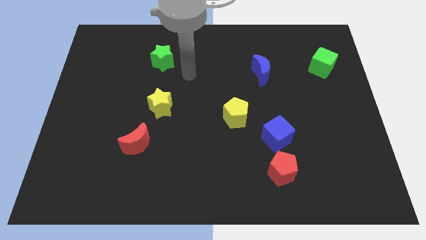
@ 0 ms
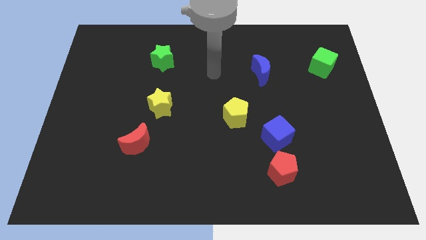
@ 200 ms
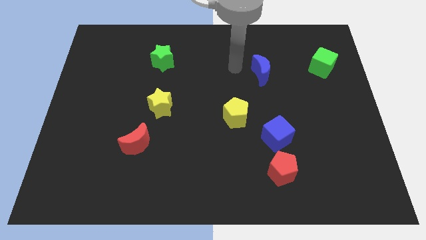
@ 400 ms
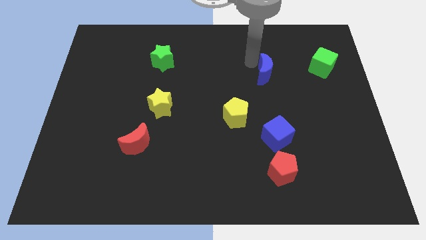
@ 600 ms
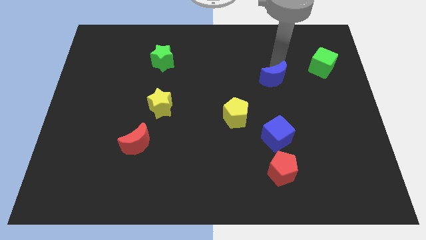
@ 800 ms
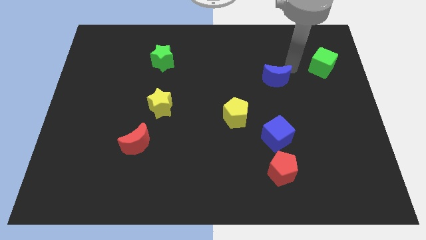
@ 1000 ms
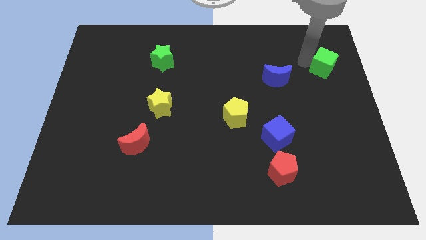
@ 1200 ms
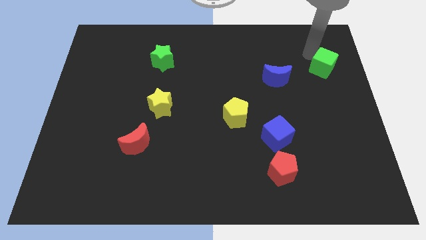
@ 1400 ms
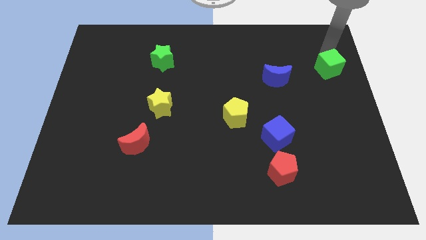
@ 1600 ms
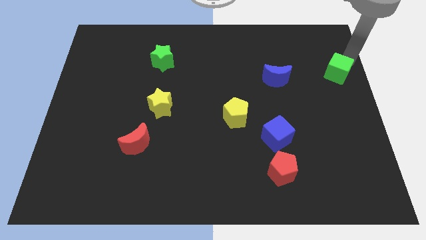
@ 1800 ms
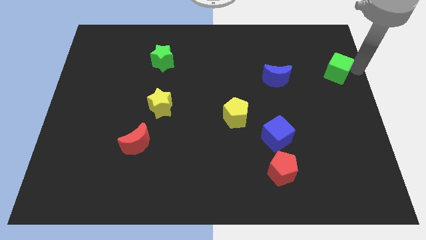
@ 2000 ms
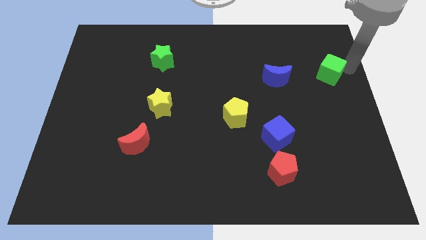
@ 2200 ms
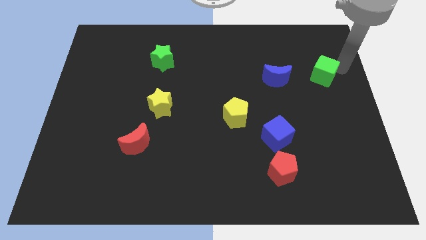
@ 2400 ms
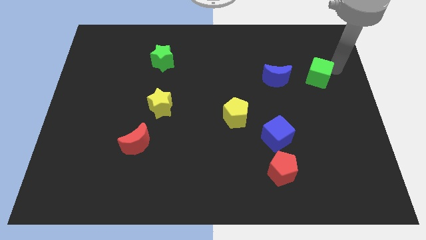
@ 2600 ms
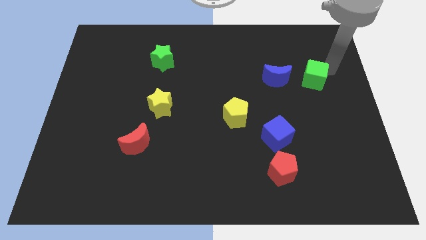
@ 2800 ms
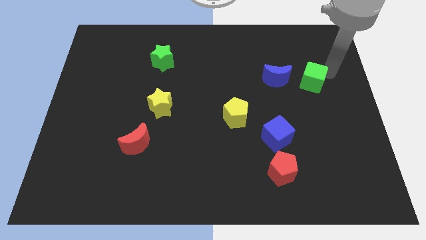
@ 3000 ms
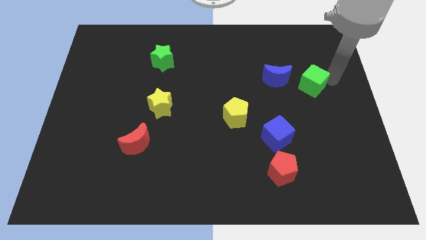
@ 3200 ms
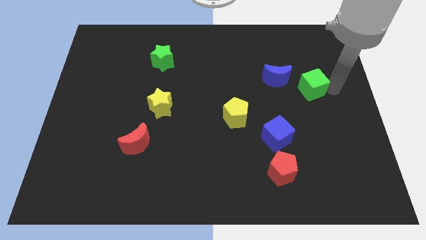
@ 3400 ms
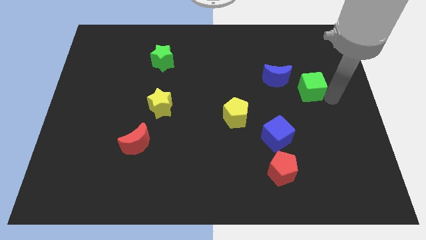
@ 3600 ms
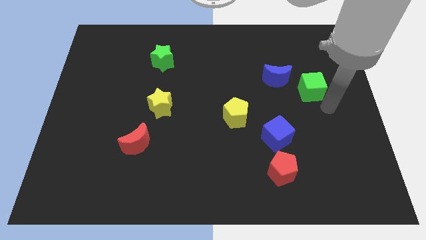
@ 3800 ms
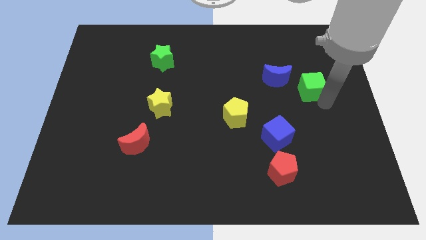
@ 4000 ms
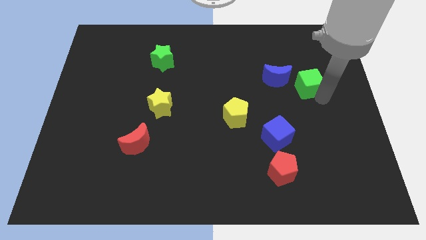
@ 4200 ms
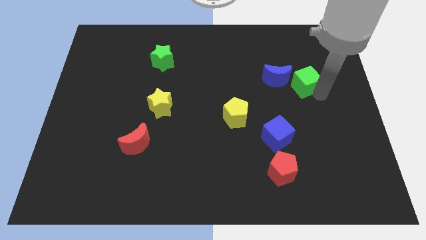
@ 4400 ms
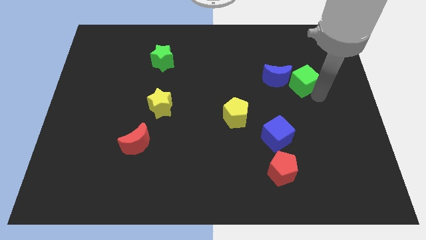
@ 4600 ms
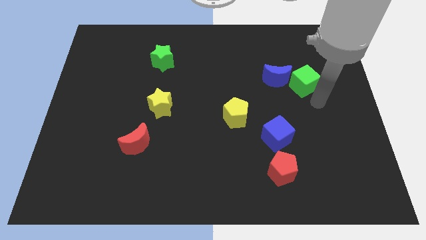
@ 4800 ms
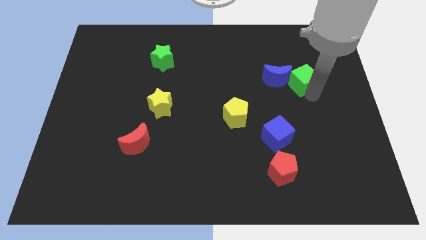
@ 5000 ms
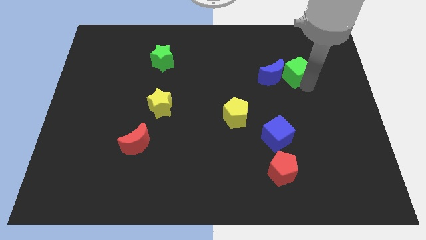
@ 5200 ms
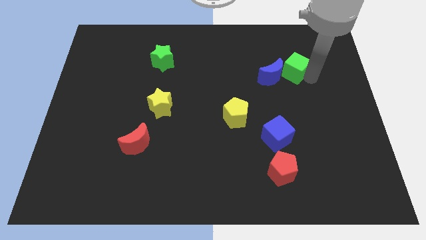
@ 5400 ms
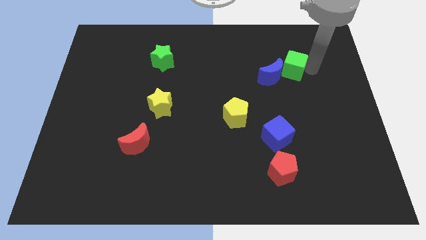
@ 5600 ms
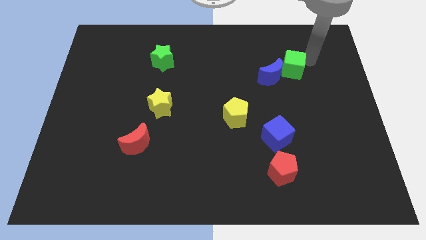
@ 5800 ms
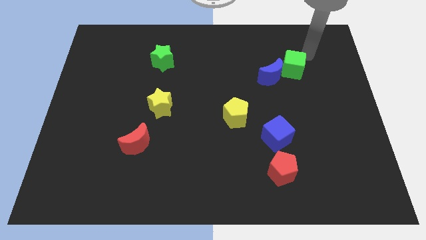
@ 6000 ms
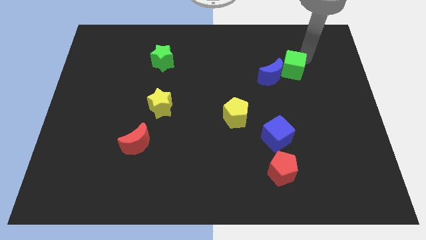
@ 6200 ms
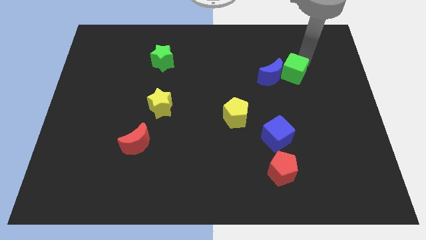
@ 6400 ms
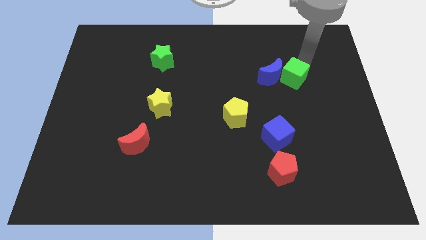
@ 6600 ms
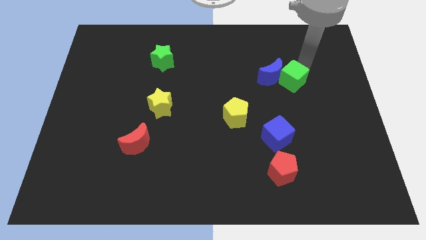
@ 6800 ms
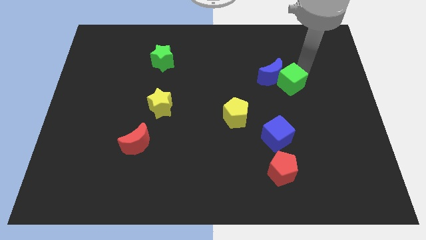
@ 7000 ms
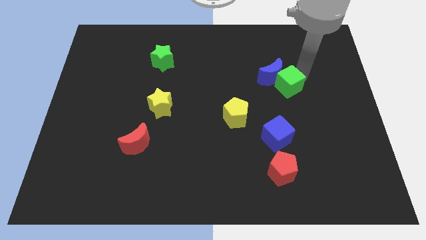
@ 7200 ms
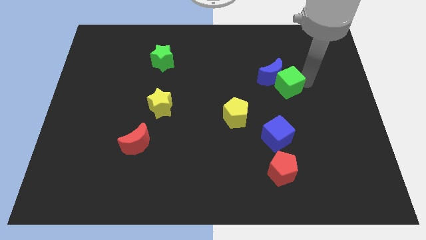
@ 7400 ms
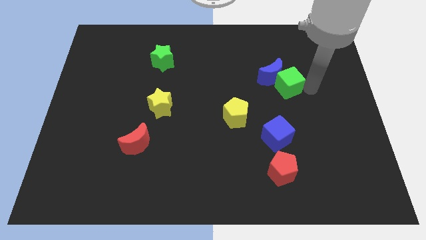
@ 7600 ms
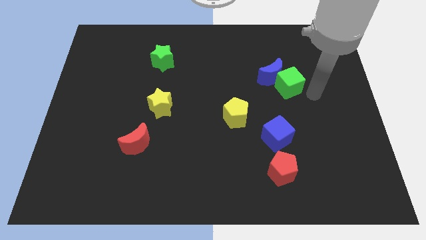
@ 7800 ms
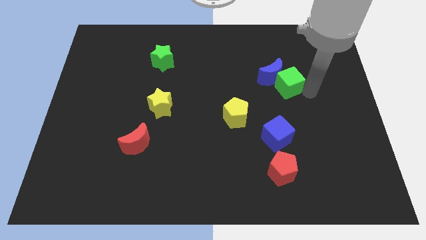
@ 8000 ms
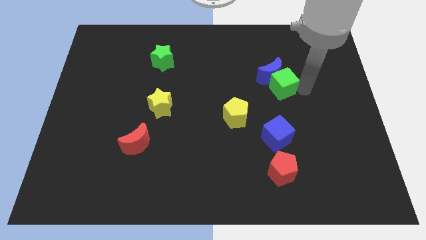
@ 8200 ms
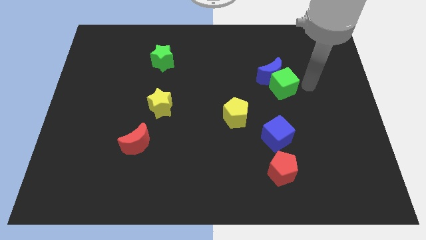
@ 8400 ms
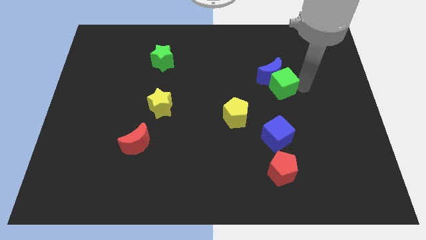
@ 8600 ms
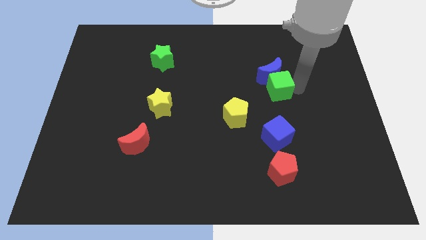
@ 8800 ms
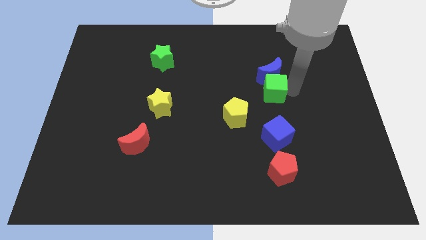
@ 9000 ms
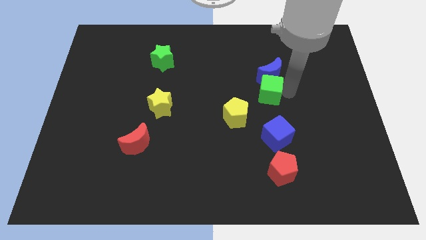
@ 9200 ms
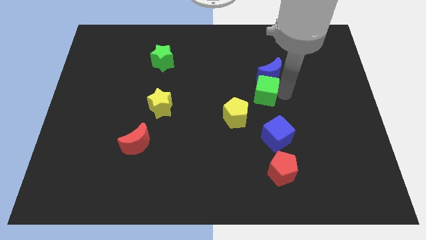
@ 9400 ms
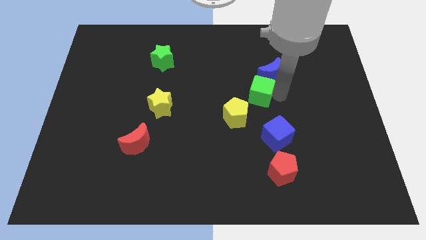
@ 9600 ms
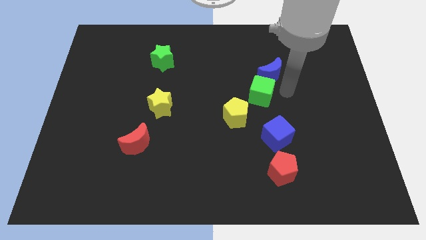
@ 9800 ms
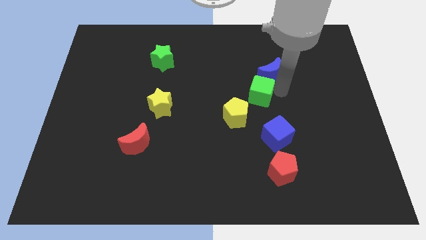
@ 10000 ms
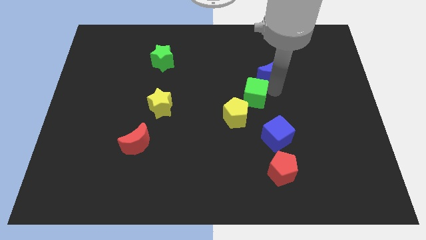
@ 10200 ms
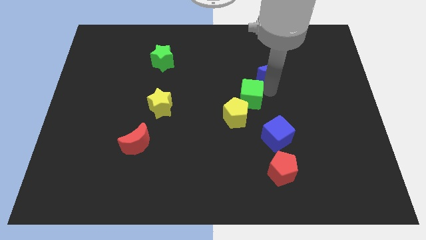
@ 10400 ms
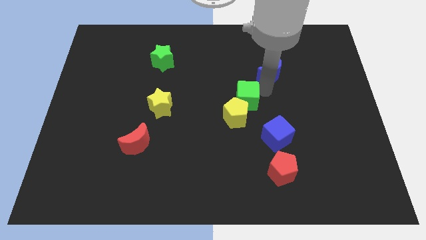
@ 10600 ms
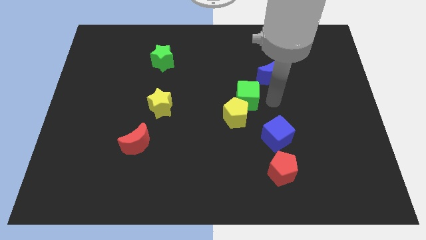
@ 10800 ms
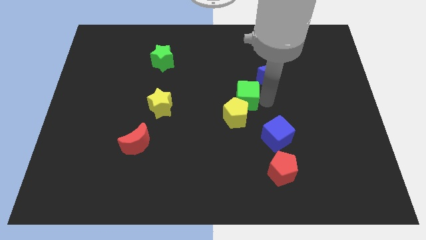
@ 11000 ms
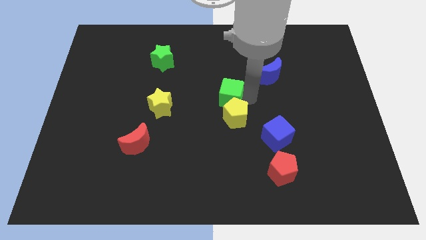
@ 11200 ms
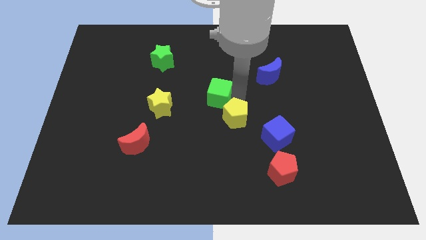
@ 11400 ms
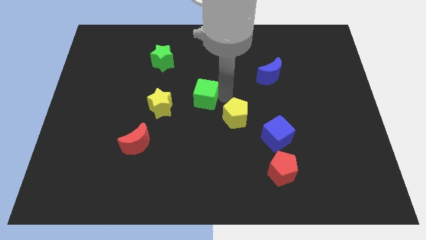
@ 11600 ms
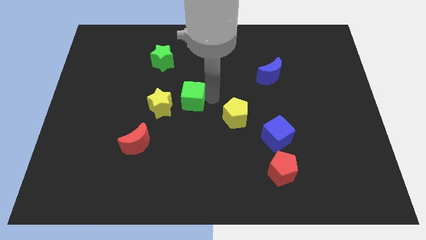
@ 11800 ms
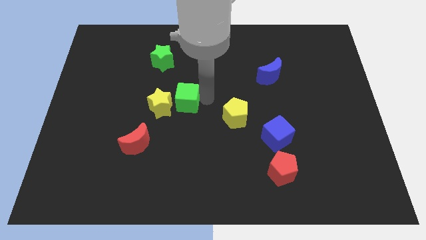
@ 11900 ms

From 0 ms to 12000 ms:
move the green cube to the yellow star

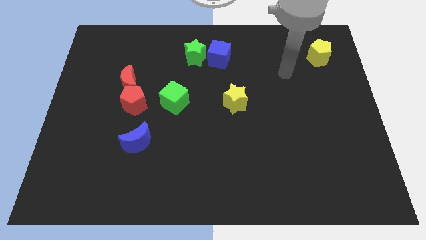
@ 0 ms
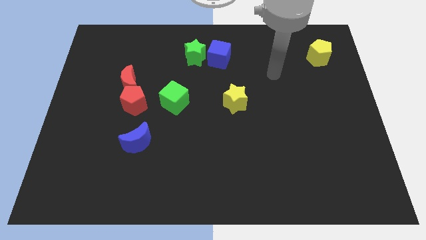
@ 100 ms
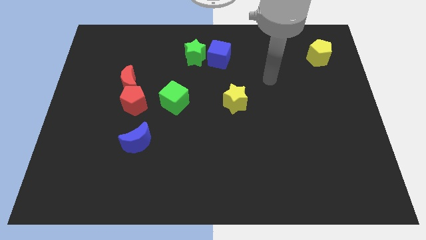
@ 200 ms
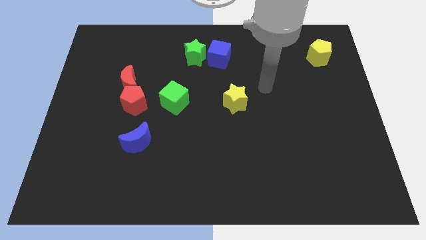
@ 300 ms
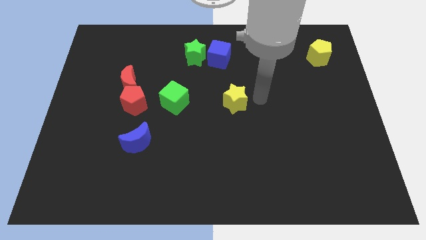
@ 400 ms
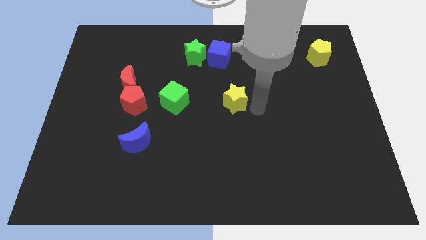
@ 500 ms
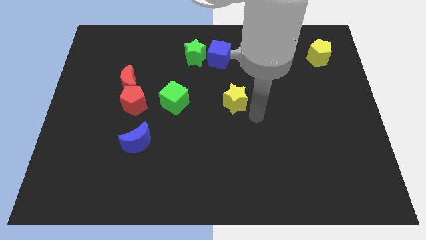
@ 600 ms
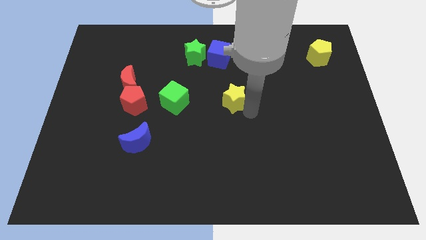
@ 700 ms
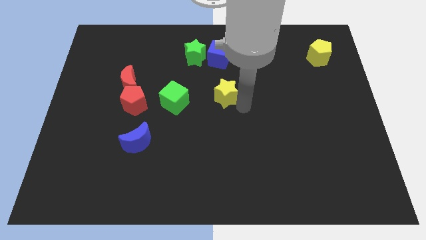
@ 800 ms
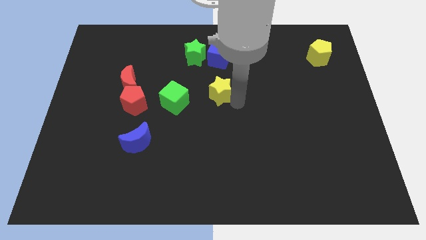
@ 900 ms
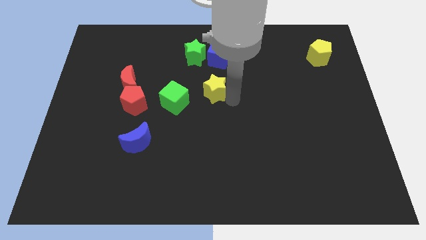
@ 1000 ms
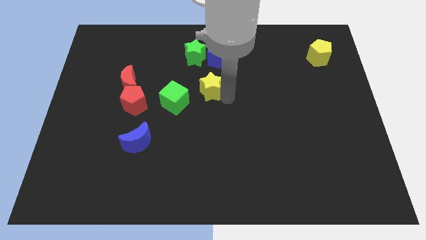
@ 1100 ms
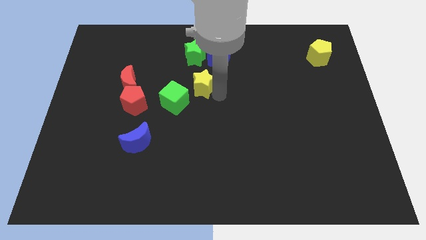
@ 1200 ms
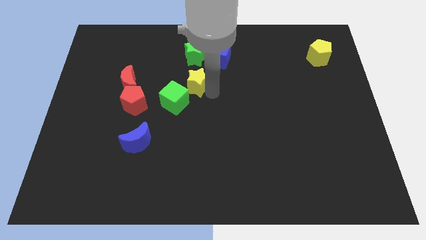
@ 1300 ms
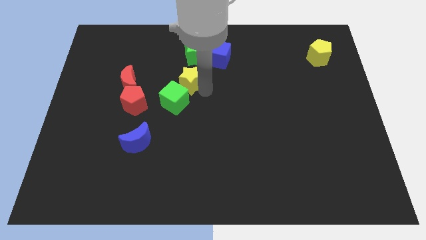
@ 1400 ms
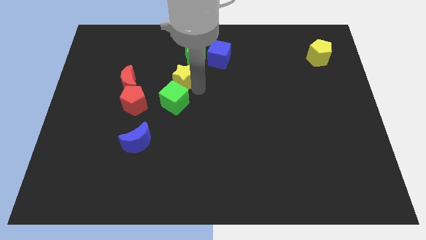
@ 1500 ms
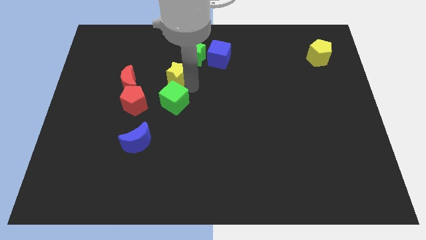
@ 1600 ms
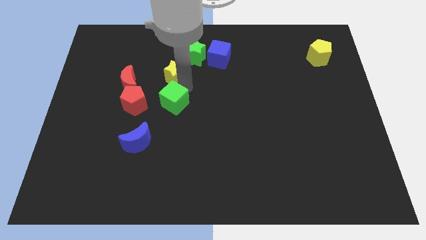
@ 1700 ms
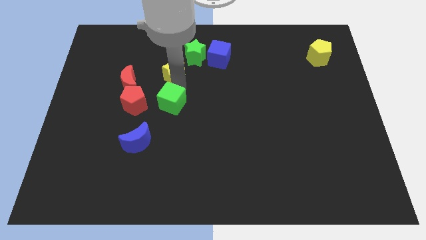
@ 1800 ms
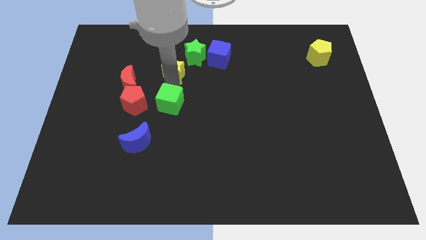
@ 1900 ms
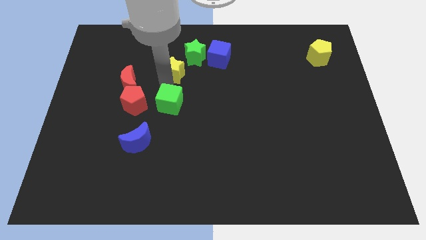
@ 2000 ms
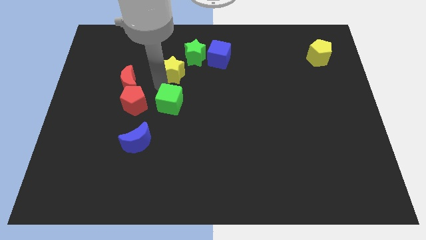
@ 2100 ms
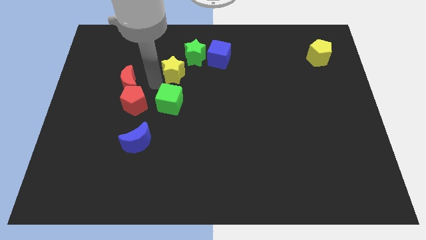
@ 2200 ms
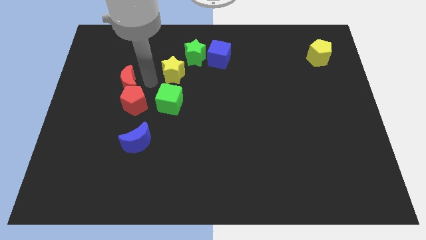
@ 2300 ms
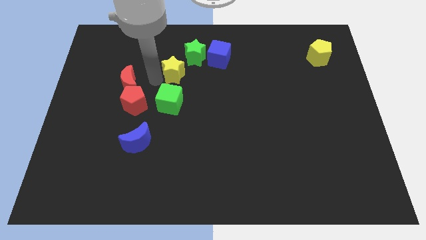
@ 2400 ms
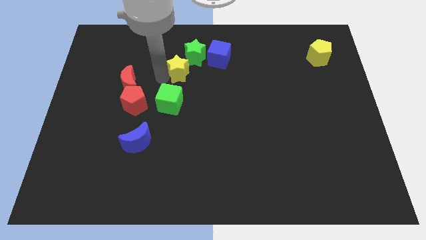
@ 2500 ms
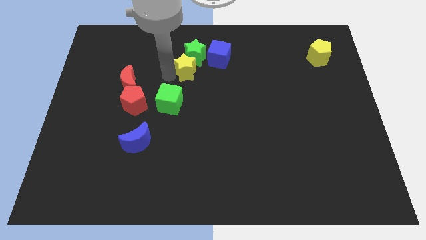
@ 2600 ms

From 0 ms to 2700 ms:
move the yellow star next to the green star
